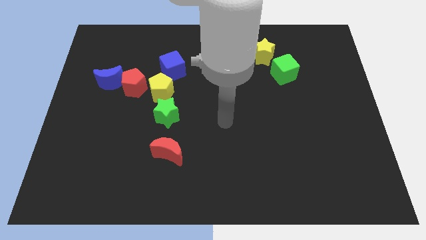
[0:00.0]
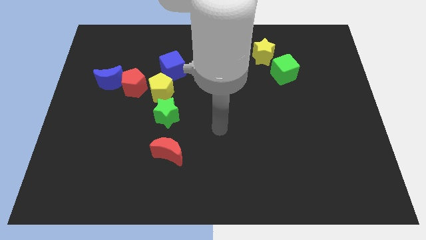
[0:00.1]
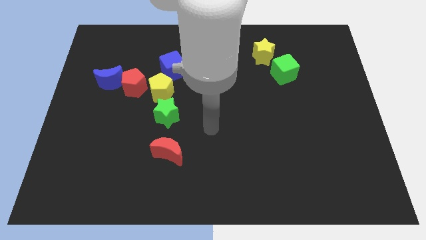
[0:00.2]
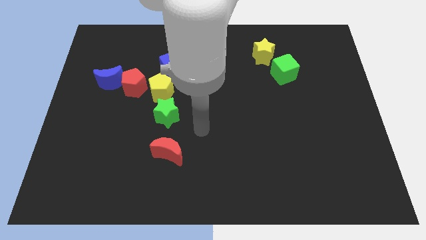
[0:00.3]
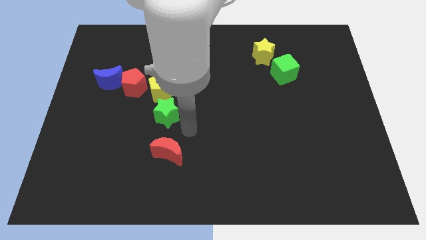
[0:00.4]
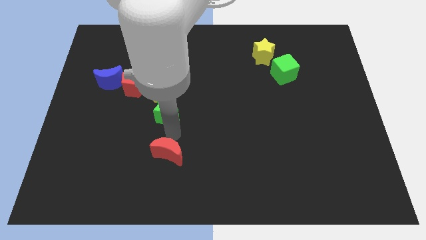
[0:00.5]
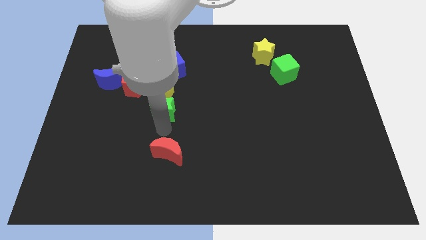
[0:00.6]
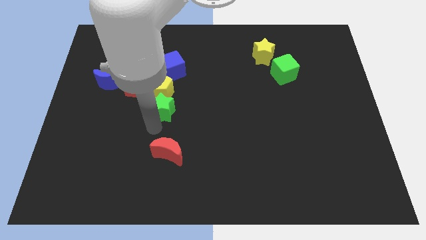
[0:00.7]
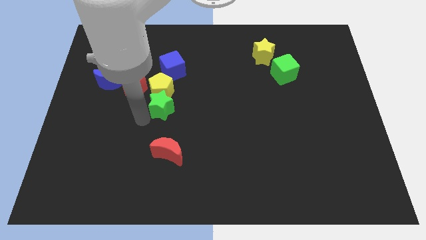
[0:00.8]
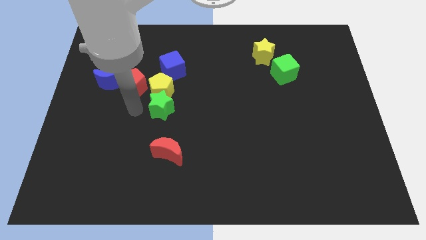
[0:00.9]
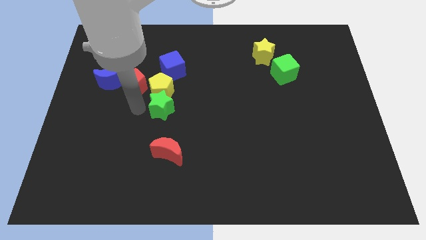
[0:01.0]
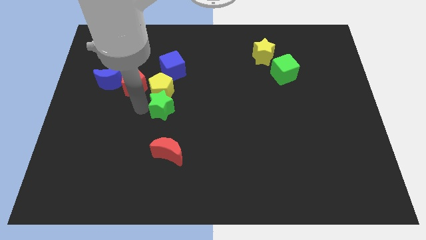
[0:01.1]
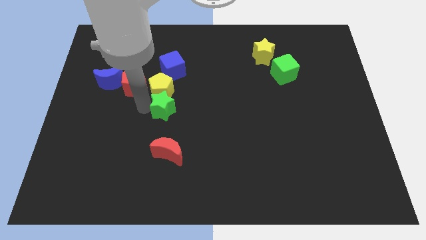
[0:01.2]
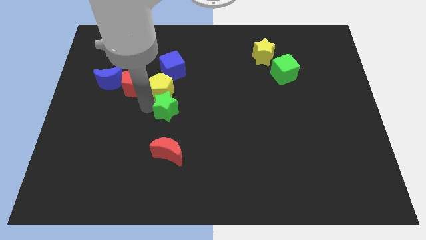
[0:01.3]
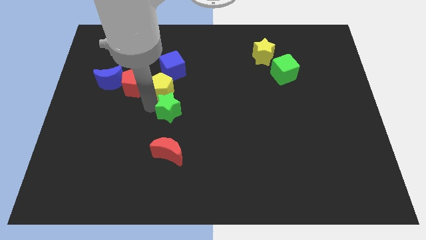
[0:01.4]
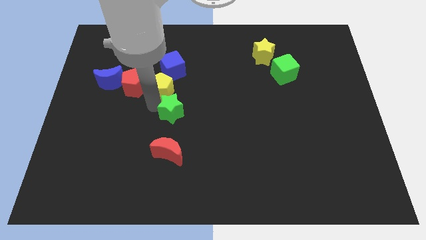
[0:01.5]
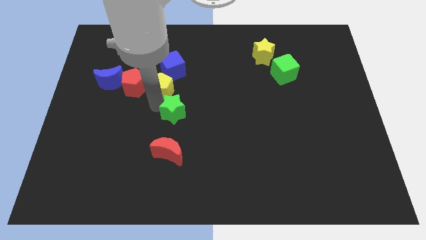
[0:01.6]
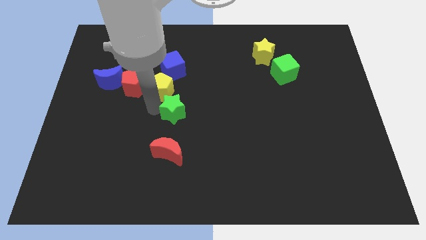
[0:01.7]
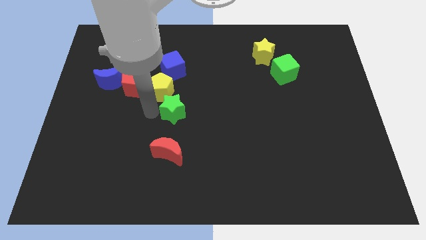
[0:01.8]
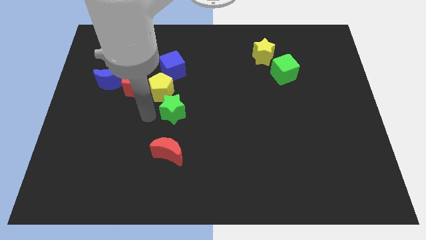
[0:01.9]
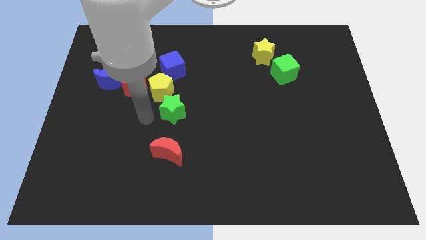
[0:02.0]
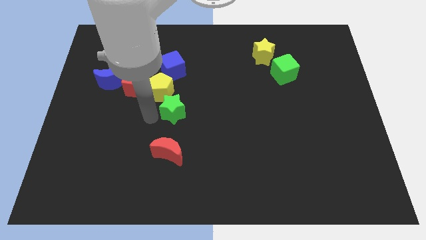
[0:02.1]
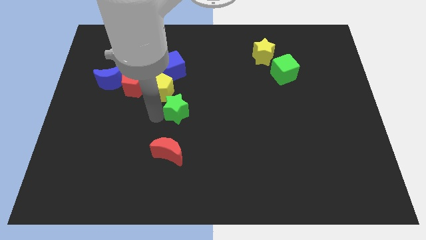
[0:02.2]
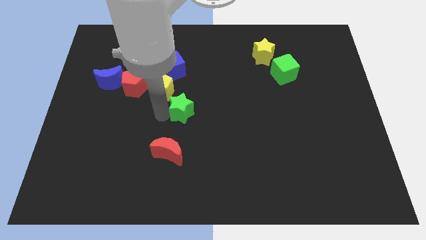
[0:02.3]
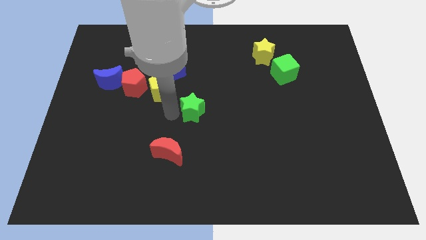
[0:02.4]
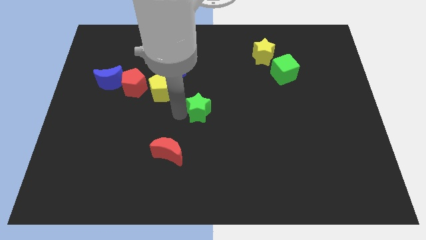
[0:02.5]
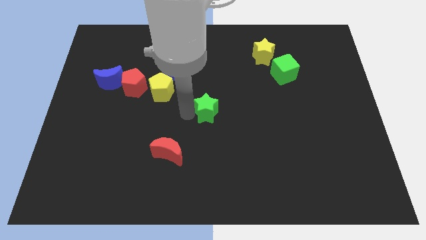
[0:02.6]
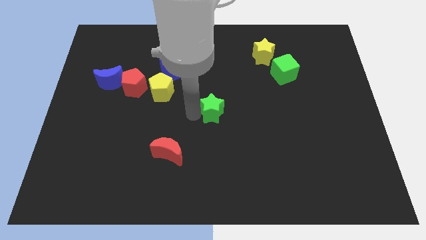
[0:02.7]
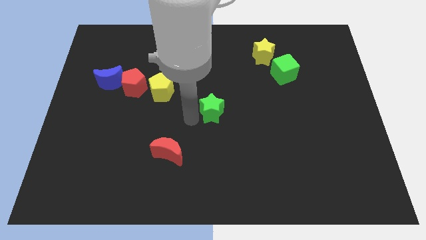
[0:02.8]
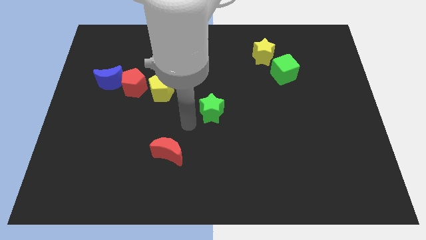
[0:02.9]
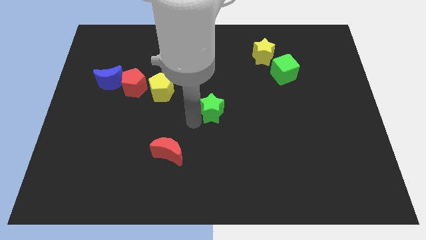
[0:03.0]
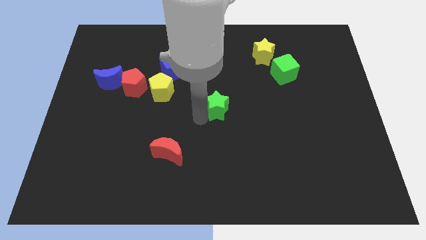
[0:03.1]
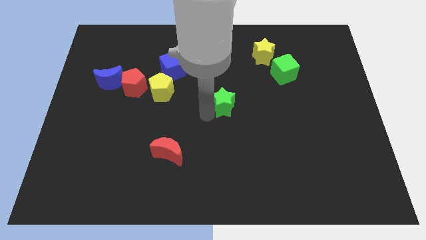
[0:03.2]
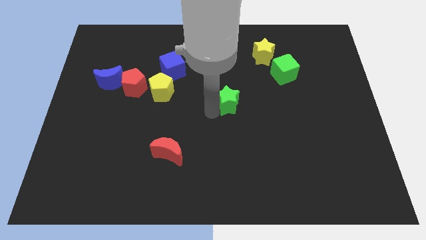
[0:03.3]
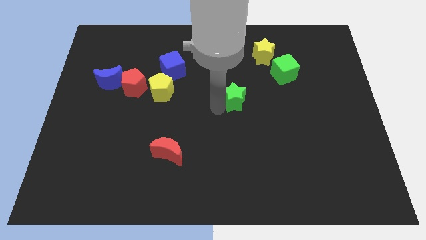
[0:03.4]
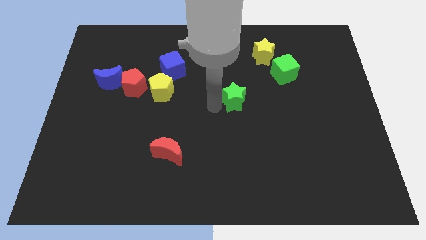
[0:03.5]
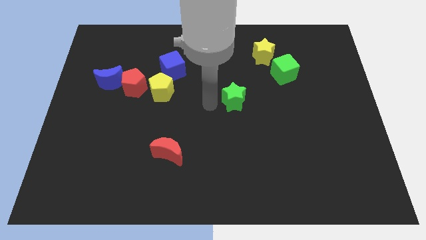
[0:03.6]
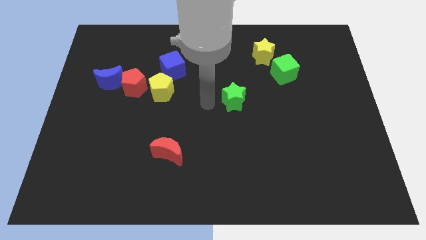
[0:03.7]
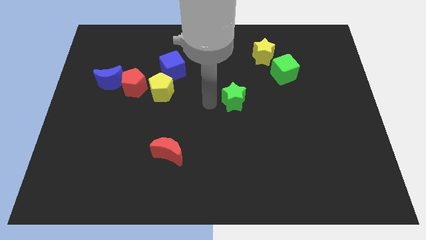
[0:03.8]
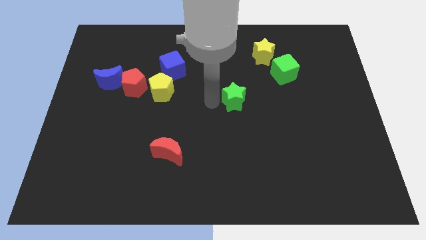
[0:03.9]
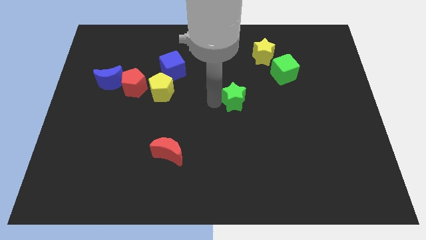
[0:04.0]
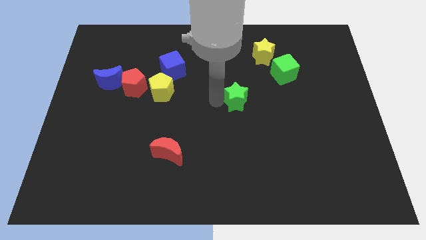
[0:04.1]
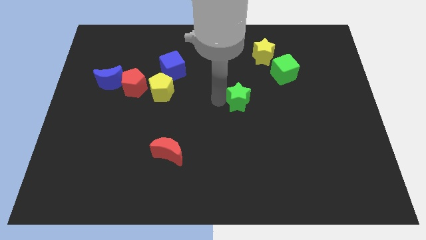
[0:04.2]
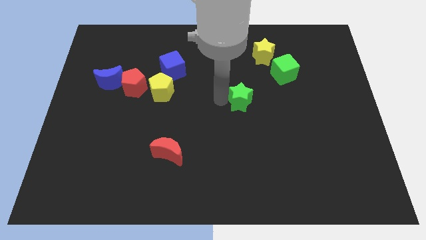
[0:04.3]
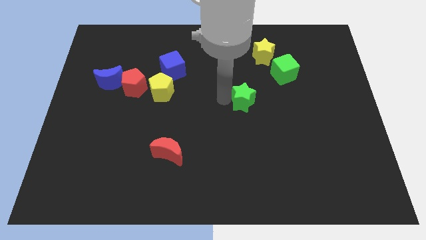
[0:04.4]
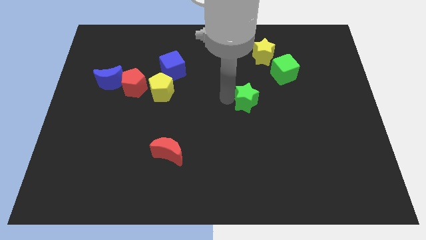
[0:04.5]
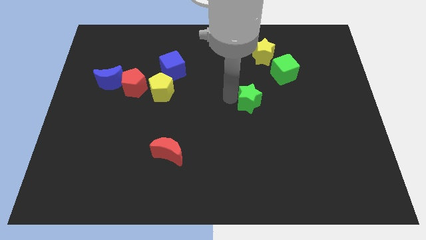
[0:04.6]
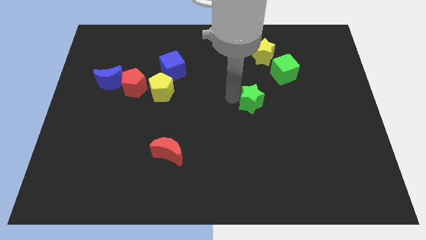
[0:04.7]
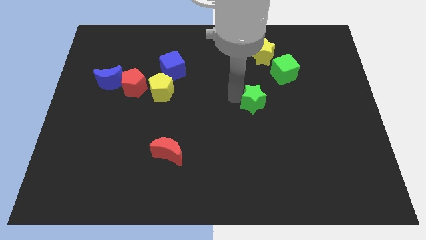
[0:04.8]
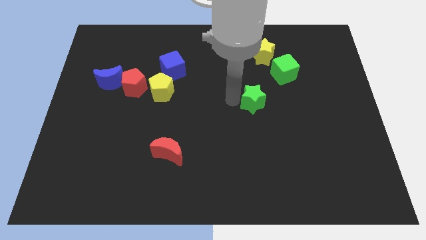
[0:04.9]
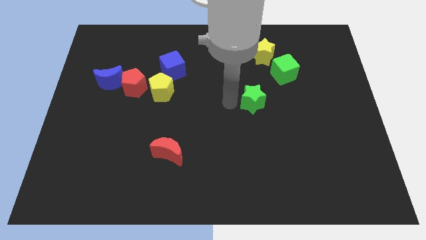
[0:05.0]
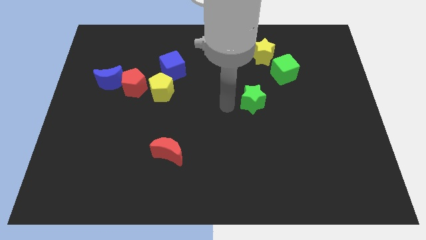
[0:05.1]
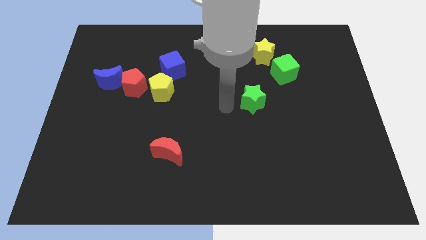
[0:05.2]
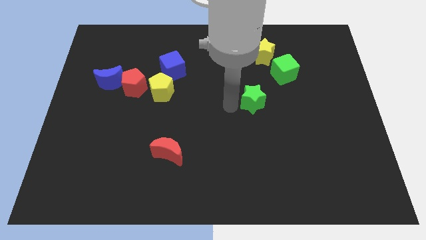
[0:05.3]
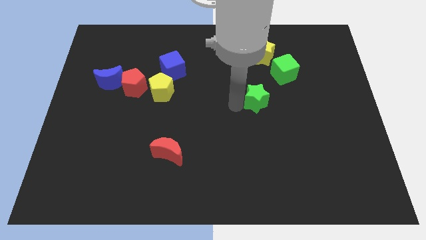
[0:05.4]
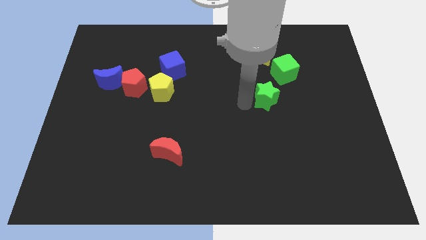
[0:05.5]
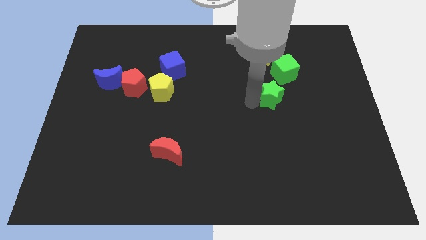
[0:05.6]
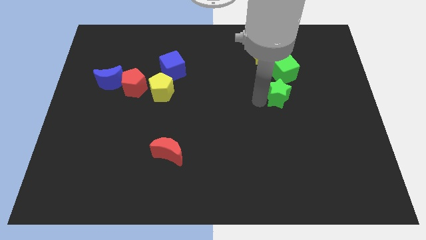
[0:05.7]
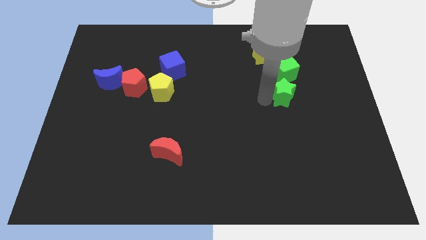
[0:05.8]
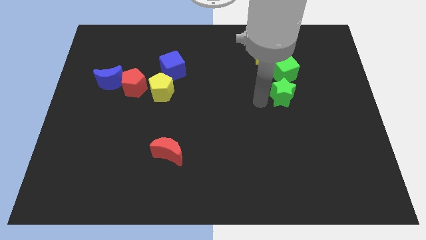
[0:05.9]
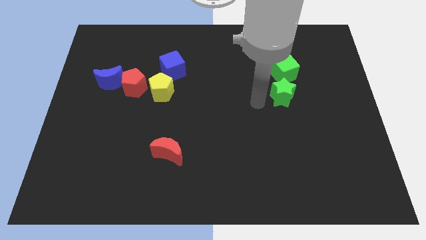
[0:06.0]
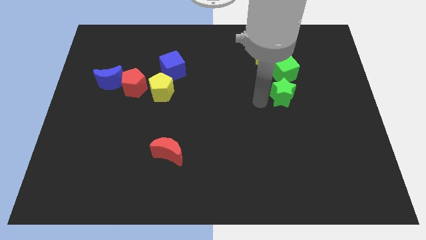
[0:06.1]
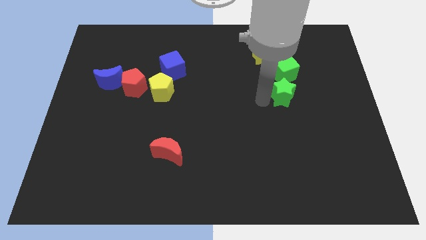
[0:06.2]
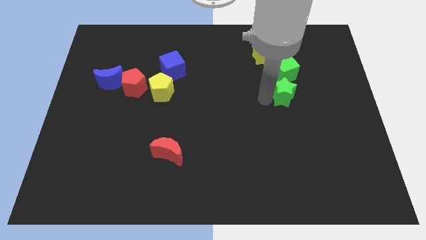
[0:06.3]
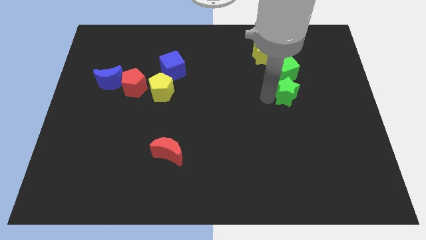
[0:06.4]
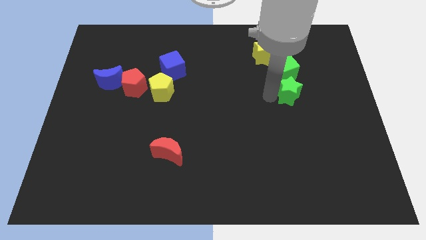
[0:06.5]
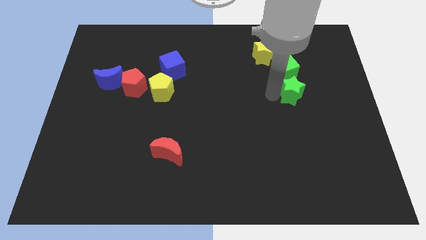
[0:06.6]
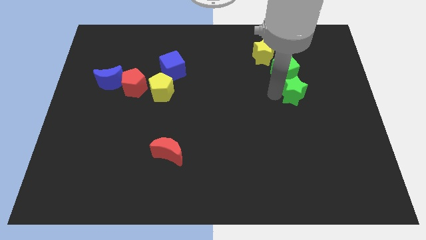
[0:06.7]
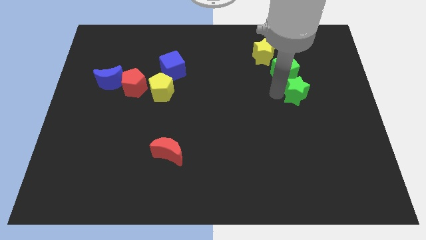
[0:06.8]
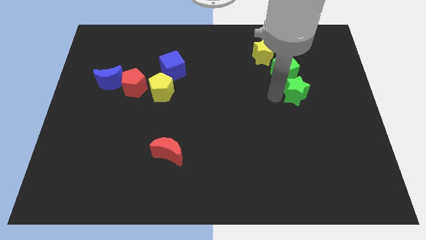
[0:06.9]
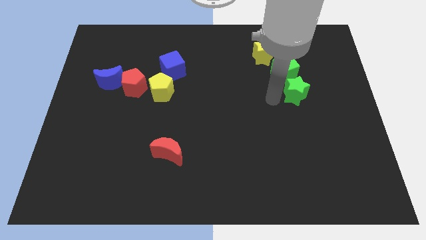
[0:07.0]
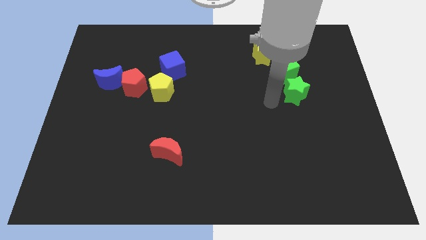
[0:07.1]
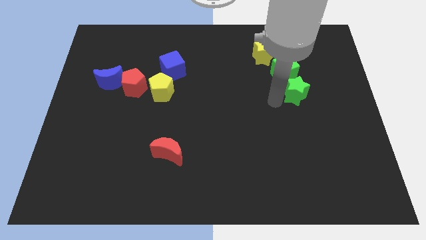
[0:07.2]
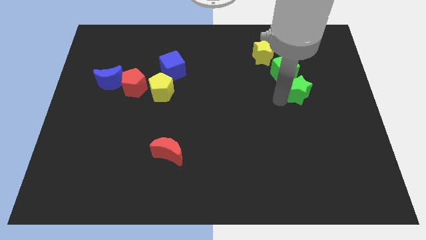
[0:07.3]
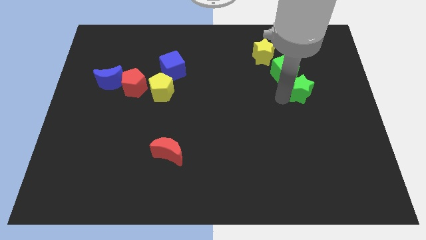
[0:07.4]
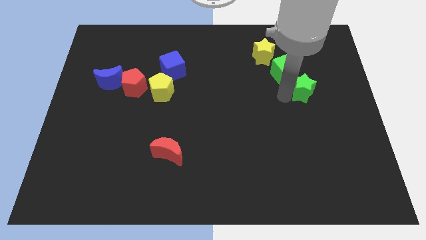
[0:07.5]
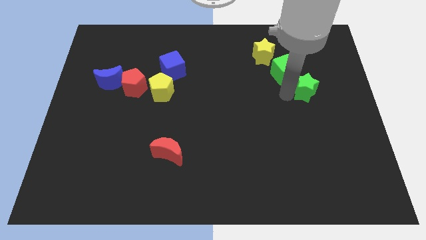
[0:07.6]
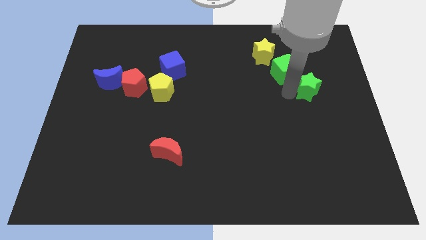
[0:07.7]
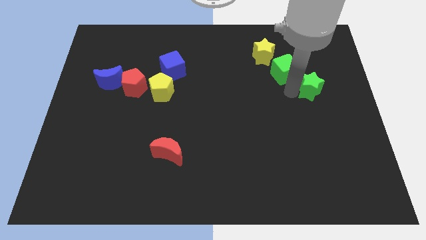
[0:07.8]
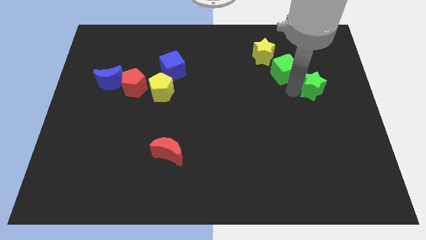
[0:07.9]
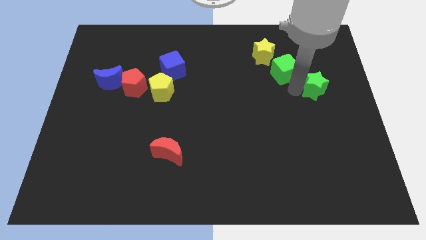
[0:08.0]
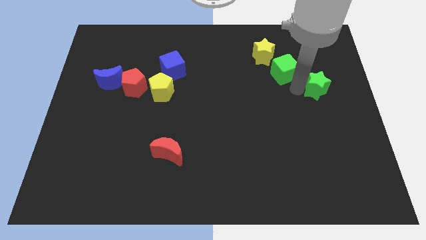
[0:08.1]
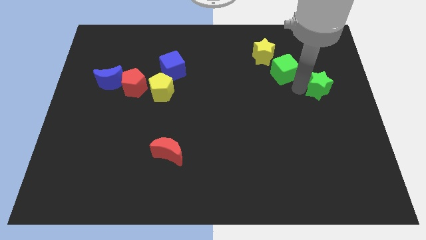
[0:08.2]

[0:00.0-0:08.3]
put the green star to the right side of the board
